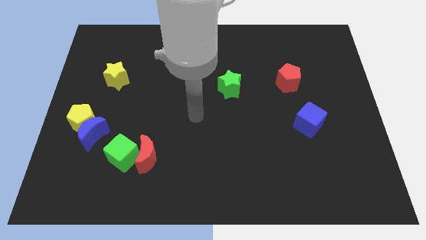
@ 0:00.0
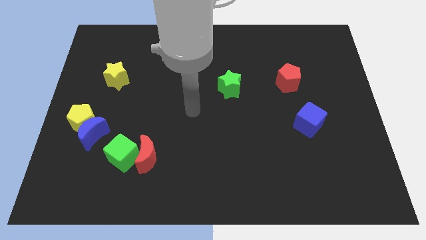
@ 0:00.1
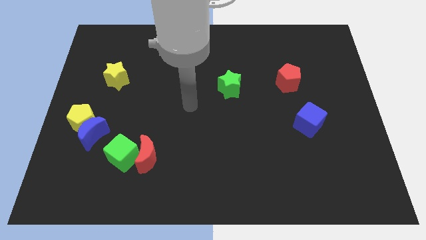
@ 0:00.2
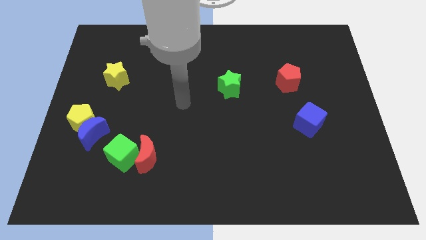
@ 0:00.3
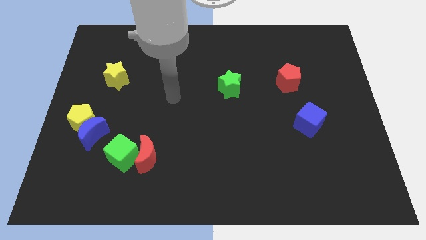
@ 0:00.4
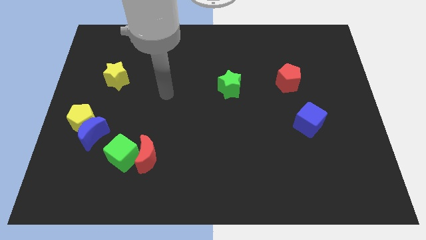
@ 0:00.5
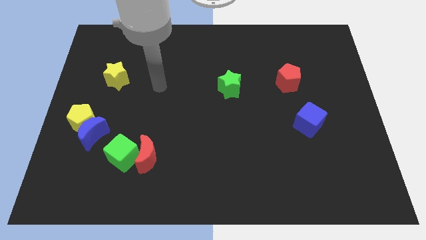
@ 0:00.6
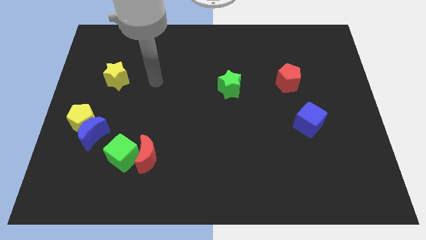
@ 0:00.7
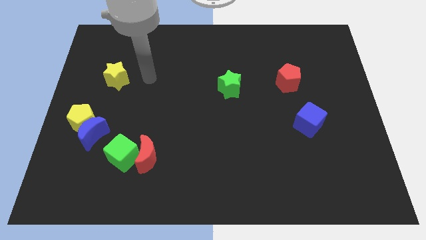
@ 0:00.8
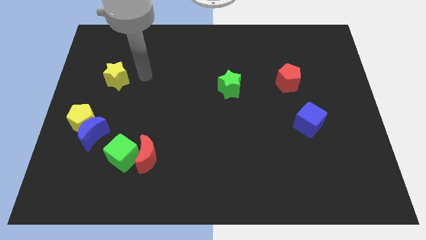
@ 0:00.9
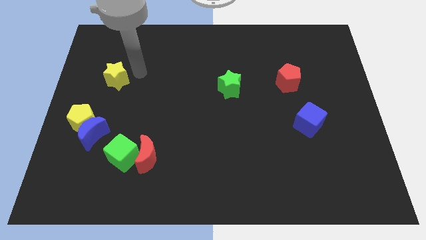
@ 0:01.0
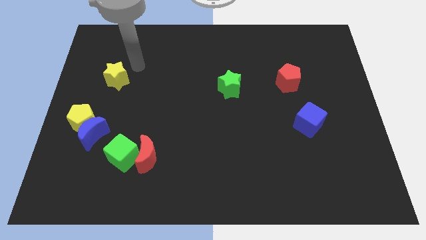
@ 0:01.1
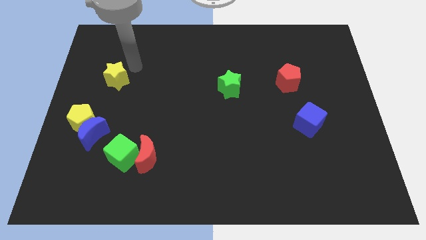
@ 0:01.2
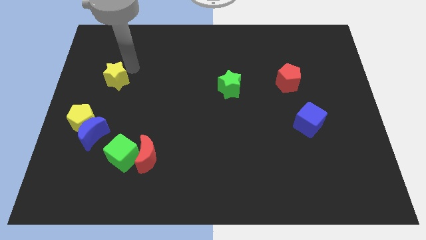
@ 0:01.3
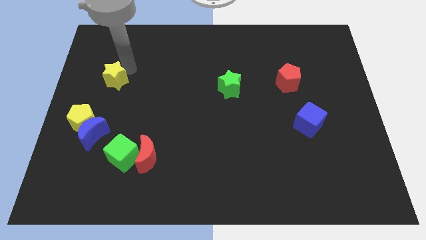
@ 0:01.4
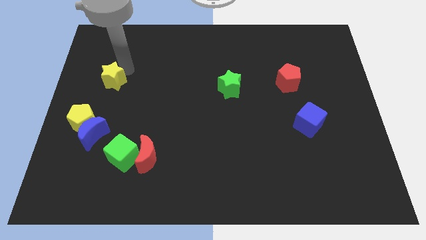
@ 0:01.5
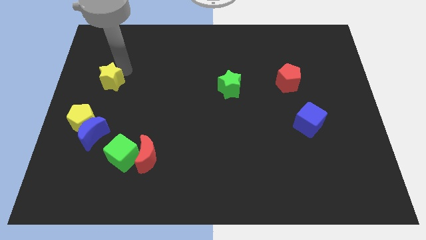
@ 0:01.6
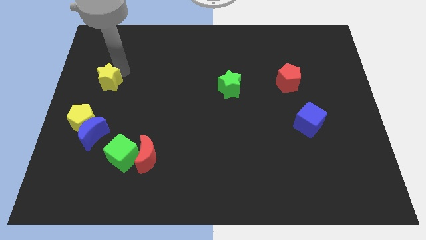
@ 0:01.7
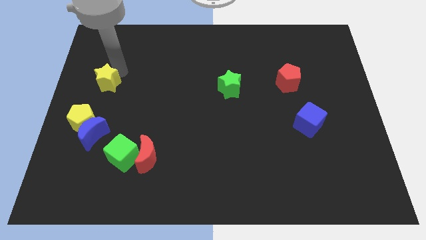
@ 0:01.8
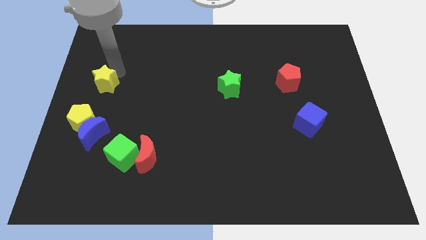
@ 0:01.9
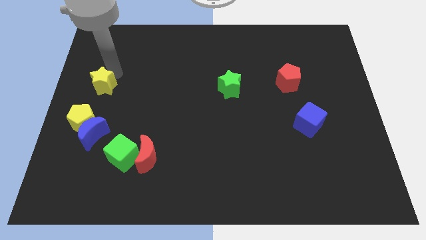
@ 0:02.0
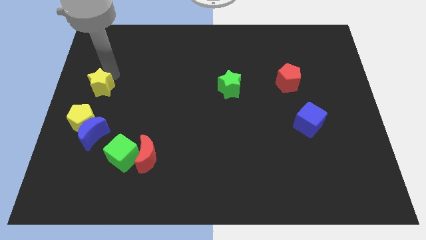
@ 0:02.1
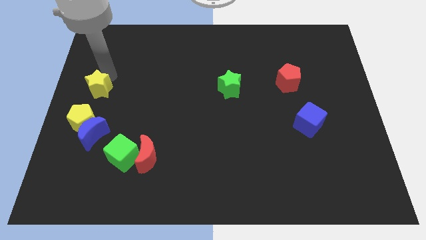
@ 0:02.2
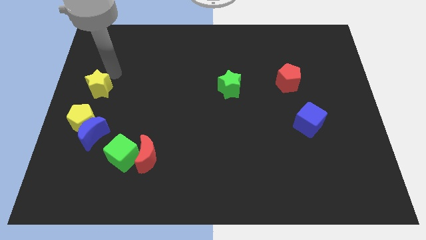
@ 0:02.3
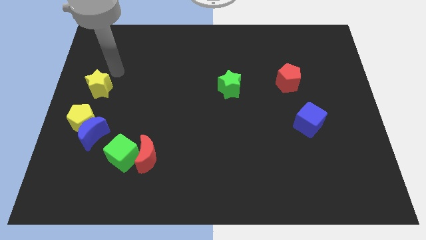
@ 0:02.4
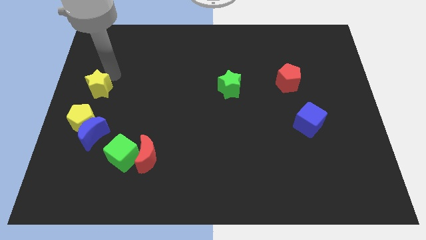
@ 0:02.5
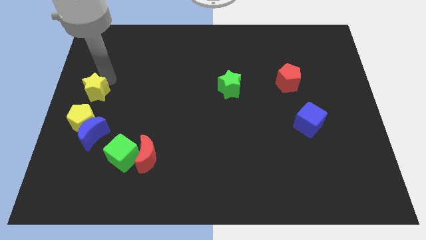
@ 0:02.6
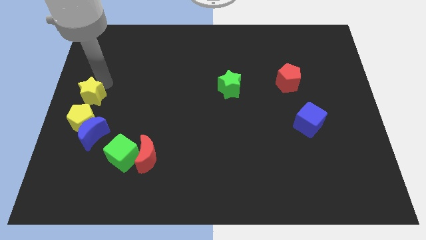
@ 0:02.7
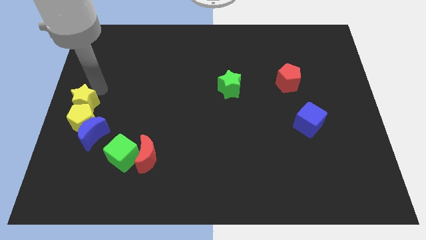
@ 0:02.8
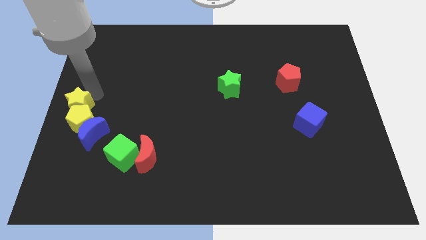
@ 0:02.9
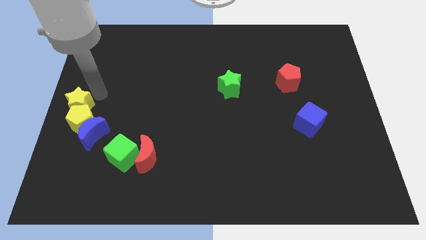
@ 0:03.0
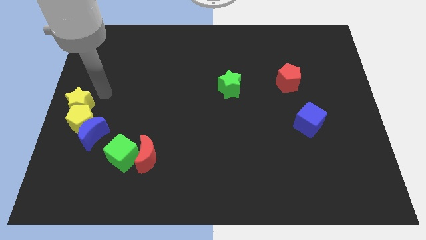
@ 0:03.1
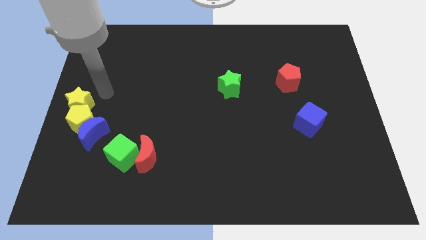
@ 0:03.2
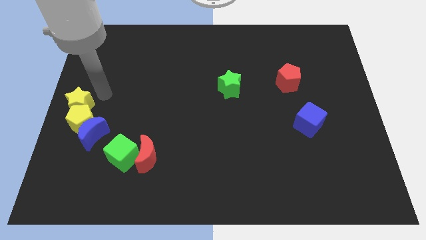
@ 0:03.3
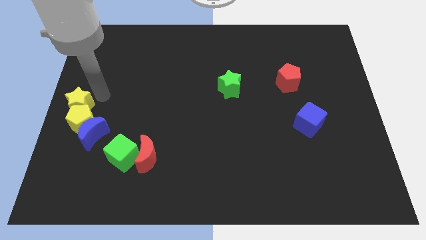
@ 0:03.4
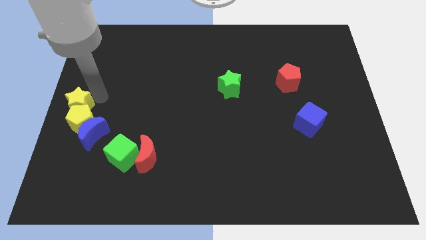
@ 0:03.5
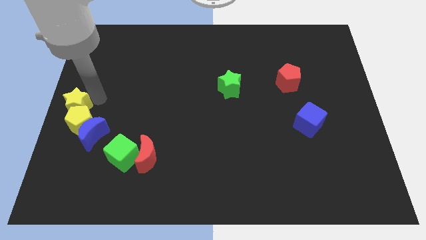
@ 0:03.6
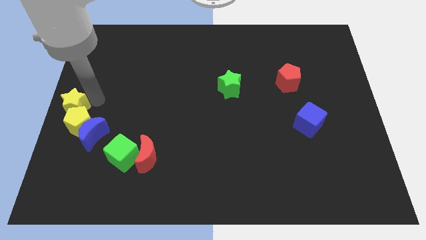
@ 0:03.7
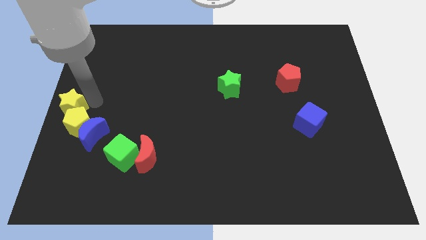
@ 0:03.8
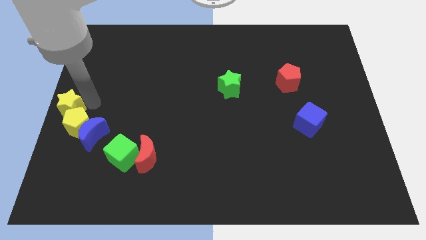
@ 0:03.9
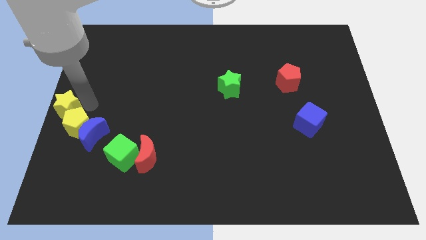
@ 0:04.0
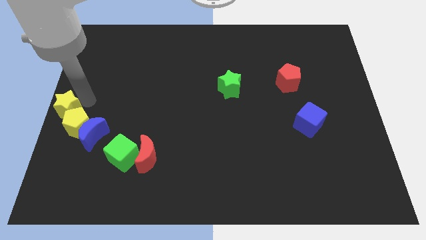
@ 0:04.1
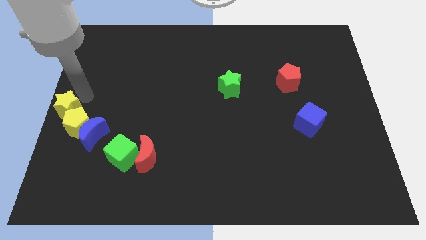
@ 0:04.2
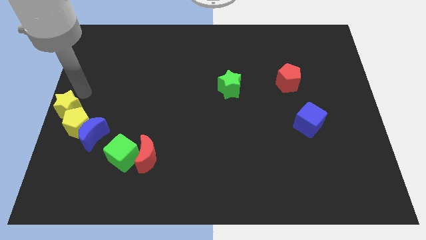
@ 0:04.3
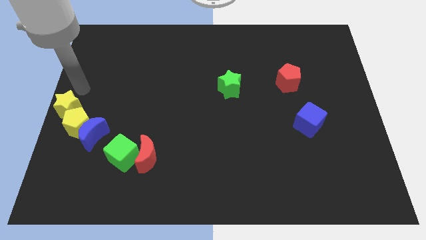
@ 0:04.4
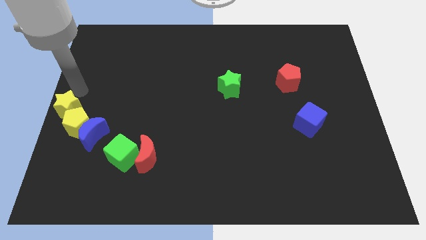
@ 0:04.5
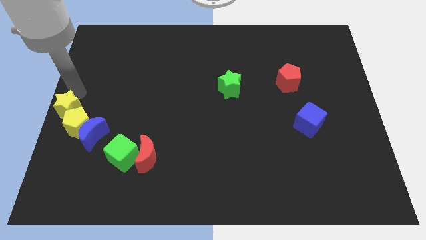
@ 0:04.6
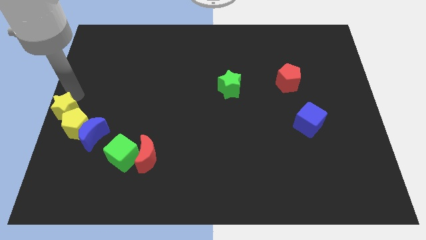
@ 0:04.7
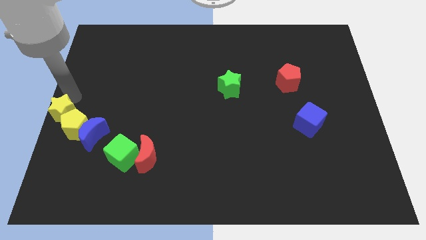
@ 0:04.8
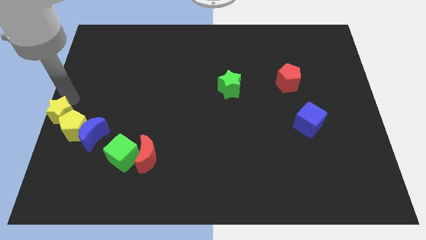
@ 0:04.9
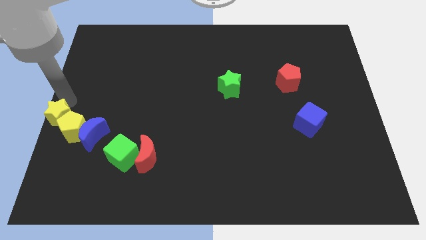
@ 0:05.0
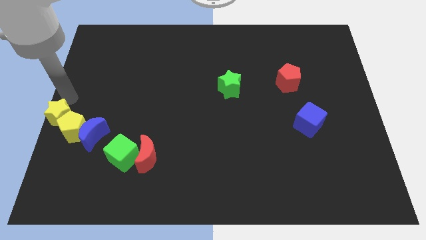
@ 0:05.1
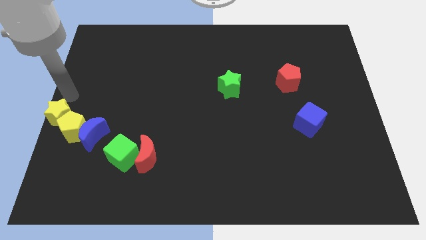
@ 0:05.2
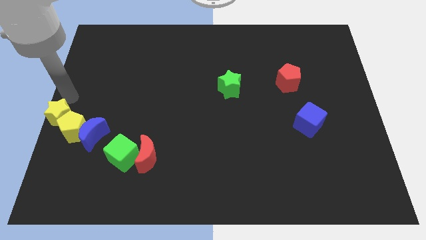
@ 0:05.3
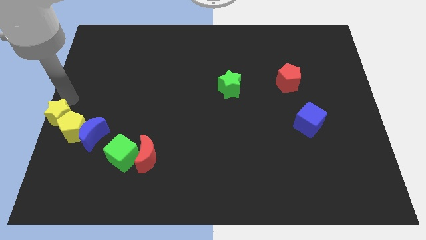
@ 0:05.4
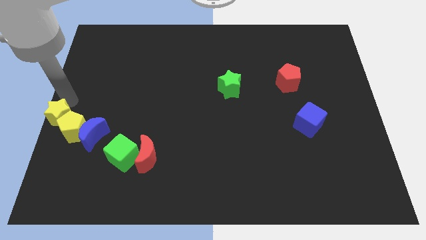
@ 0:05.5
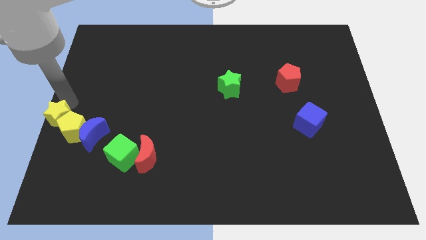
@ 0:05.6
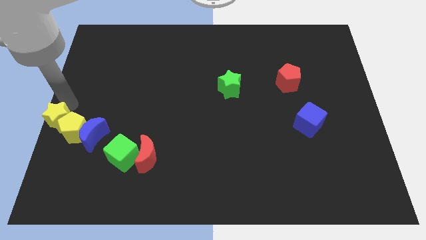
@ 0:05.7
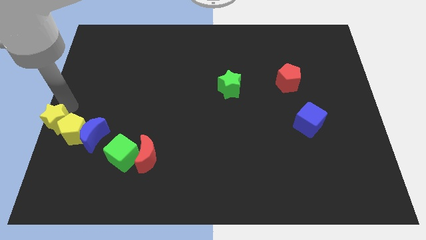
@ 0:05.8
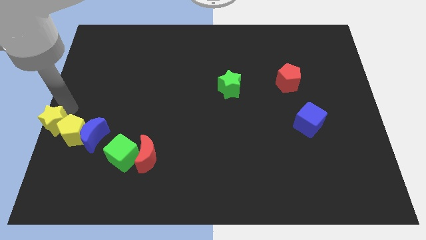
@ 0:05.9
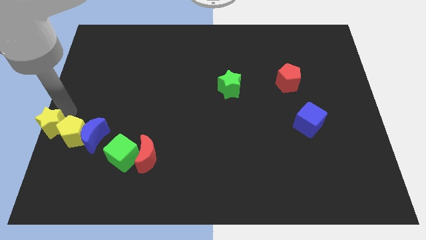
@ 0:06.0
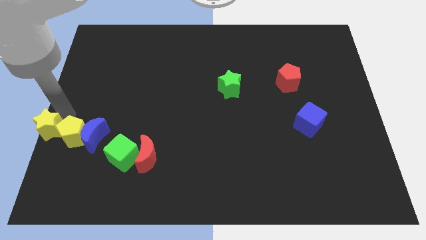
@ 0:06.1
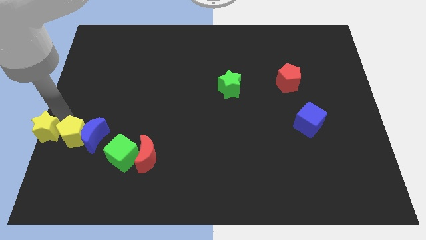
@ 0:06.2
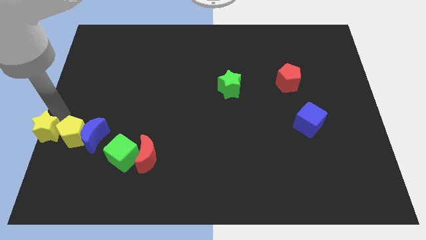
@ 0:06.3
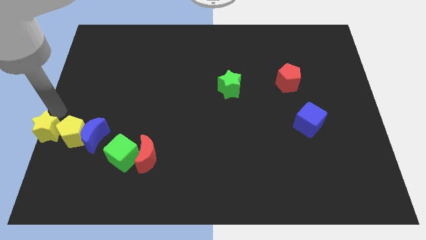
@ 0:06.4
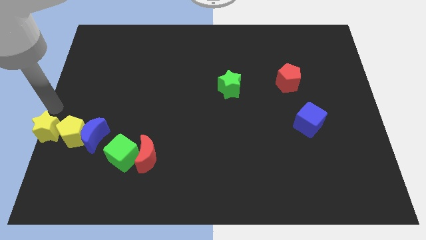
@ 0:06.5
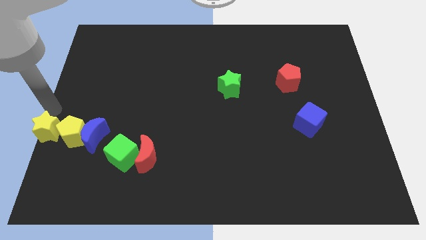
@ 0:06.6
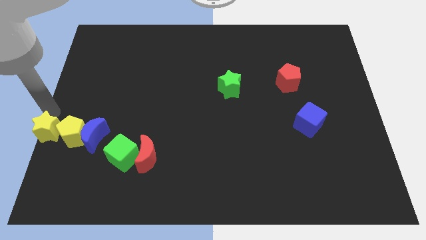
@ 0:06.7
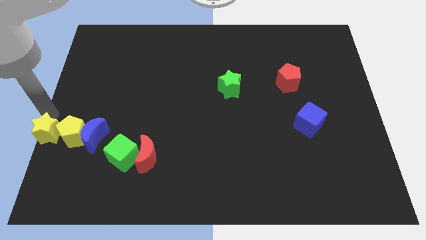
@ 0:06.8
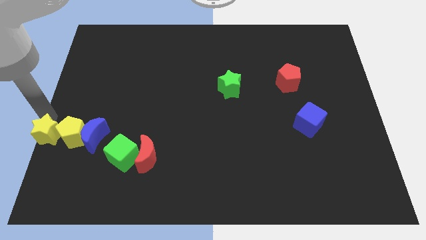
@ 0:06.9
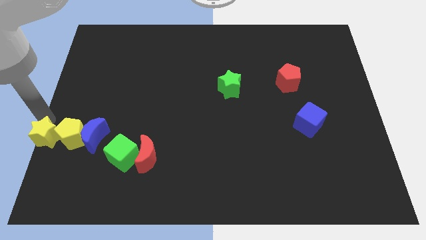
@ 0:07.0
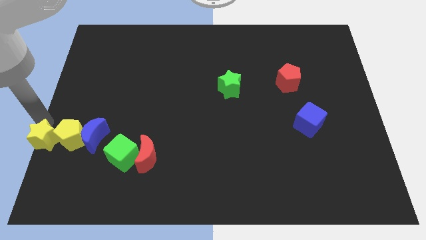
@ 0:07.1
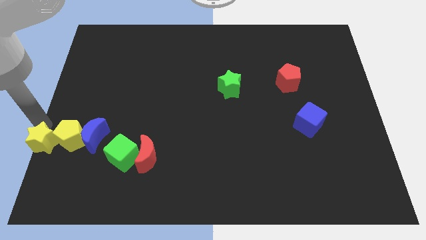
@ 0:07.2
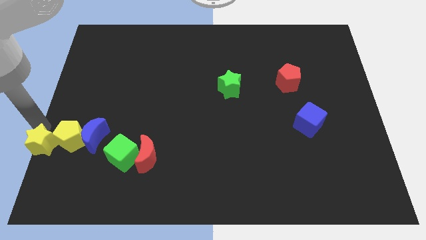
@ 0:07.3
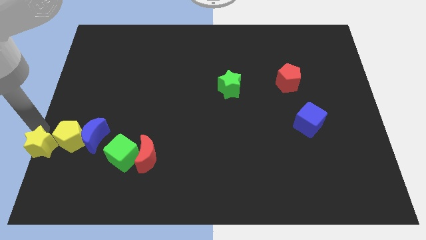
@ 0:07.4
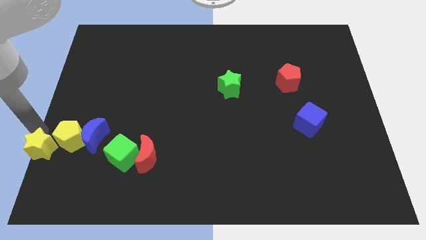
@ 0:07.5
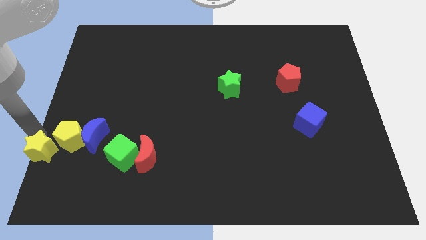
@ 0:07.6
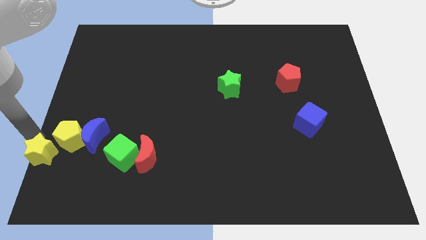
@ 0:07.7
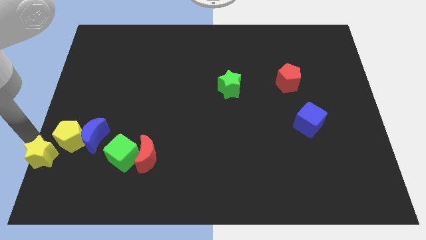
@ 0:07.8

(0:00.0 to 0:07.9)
slide the yellow star to the bottom left of the board
